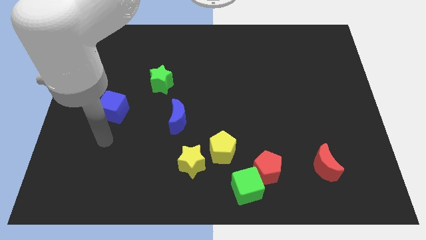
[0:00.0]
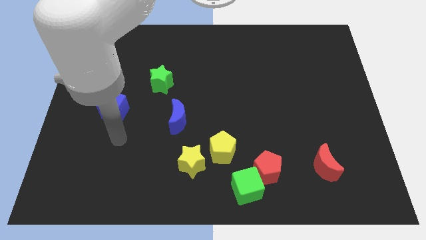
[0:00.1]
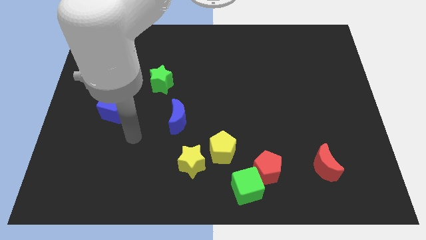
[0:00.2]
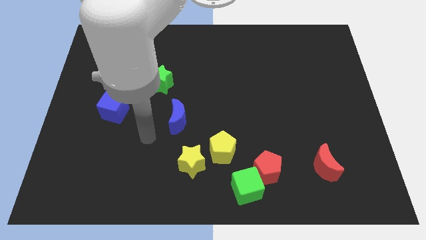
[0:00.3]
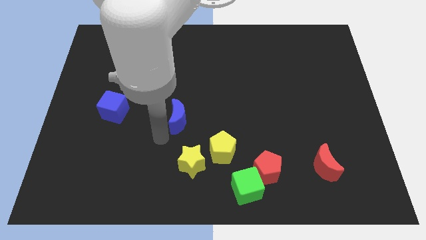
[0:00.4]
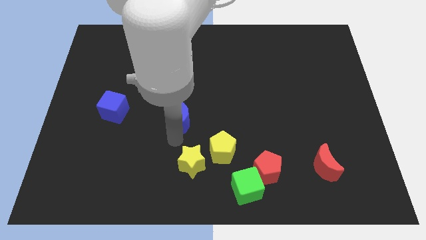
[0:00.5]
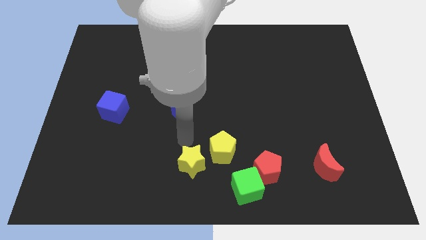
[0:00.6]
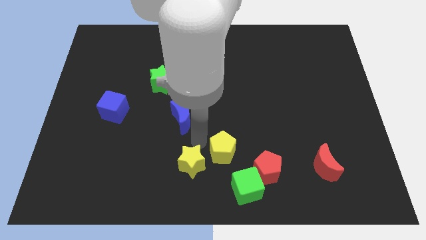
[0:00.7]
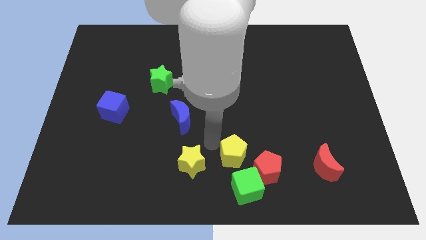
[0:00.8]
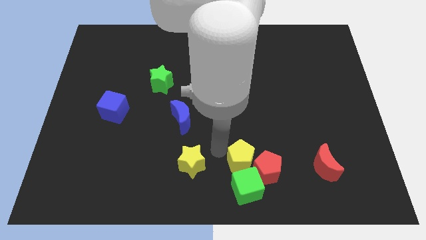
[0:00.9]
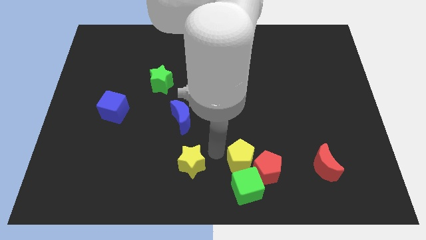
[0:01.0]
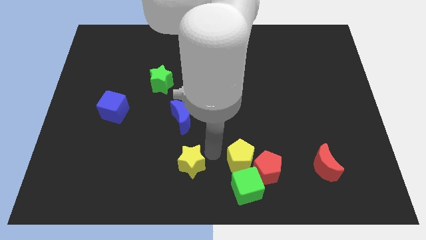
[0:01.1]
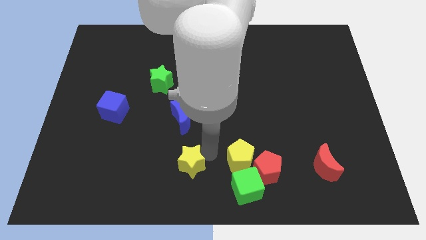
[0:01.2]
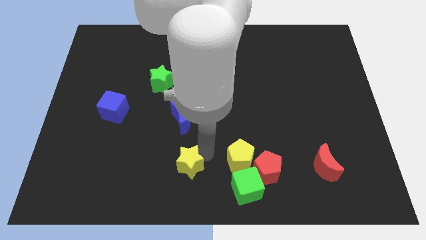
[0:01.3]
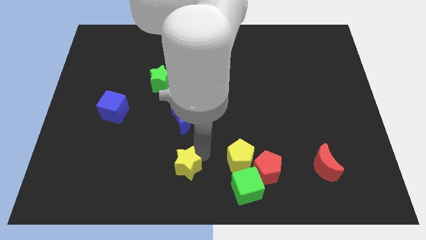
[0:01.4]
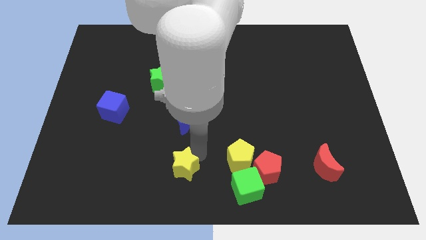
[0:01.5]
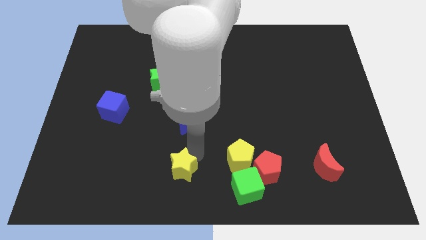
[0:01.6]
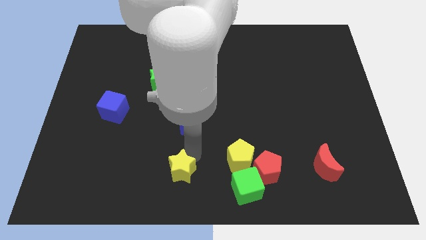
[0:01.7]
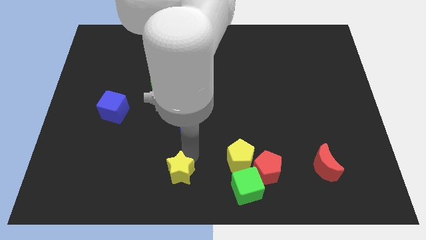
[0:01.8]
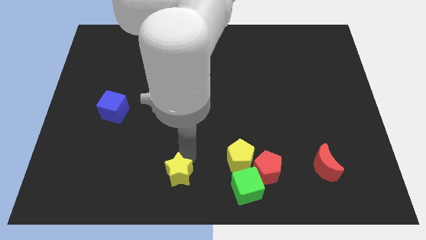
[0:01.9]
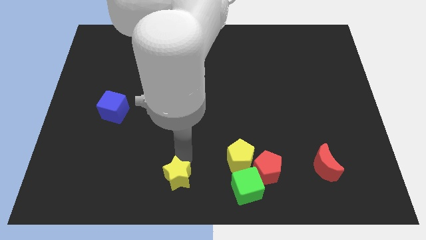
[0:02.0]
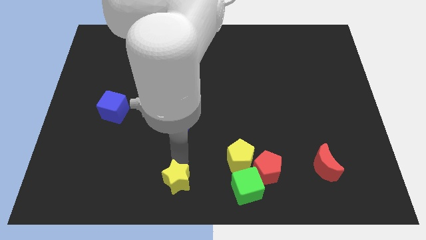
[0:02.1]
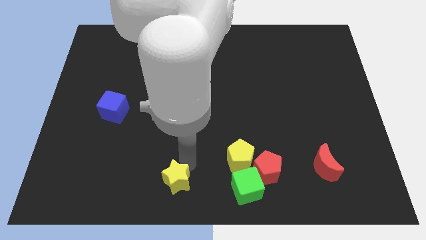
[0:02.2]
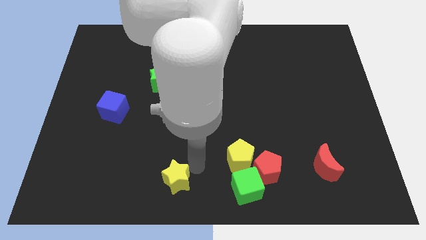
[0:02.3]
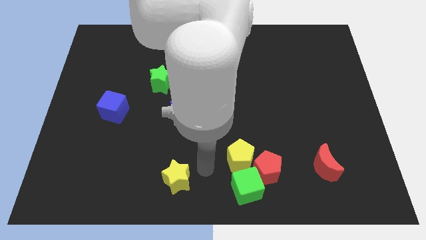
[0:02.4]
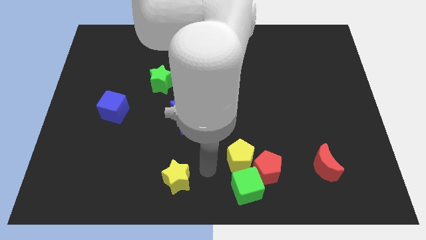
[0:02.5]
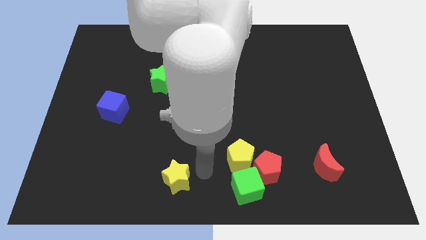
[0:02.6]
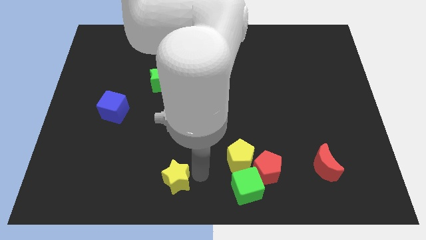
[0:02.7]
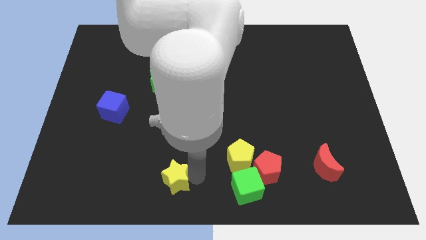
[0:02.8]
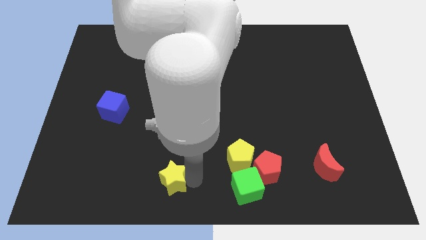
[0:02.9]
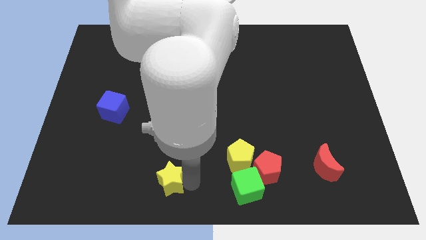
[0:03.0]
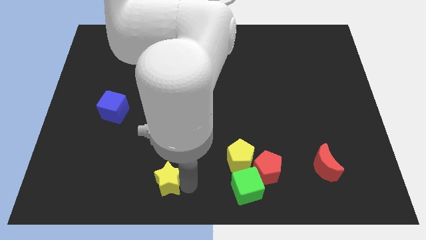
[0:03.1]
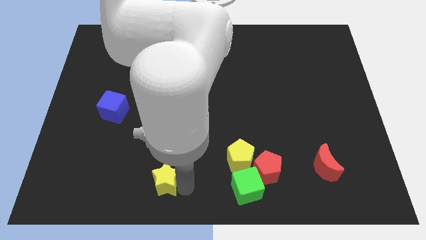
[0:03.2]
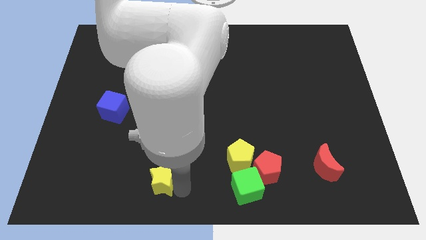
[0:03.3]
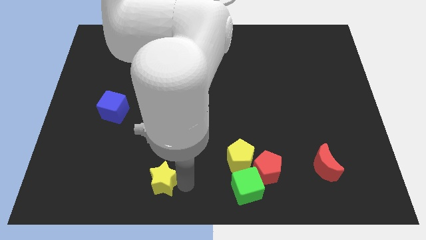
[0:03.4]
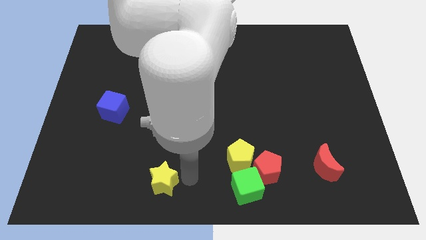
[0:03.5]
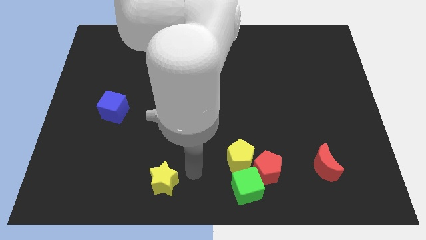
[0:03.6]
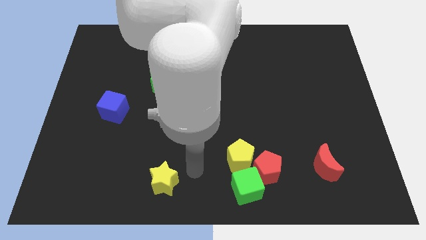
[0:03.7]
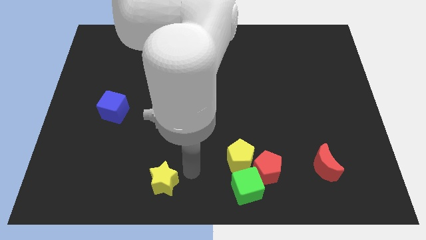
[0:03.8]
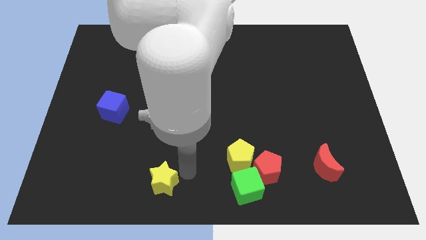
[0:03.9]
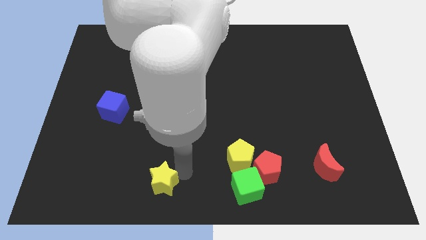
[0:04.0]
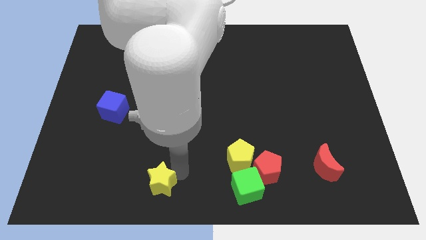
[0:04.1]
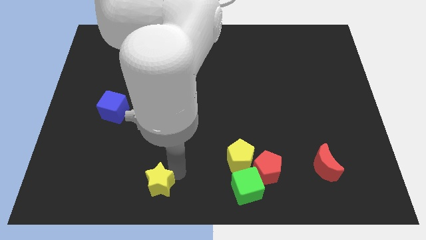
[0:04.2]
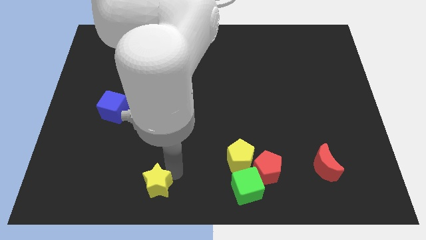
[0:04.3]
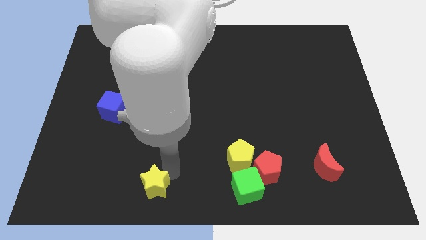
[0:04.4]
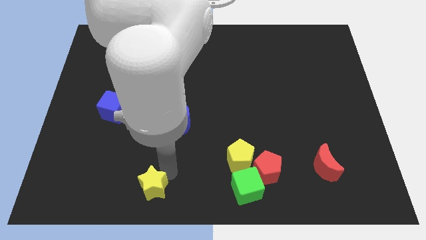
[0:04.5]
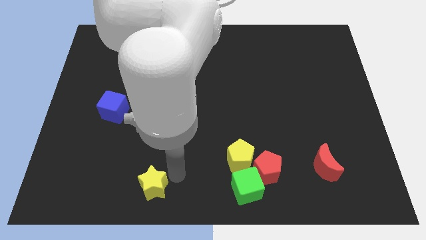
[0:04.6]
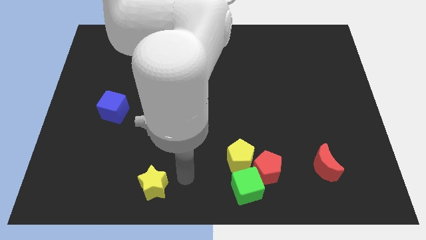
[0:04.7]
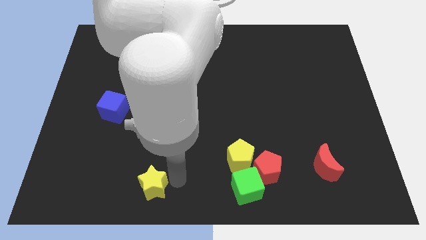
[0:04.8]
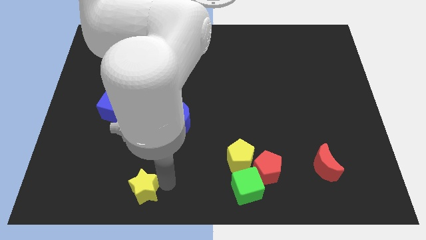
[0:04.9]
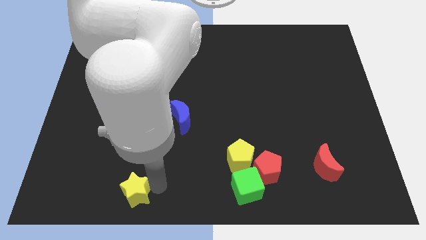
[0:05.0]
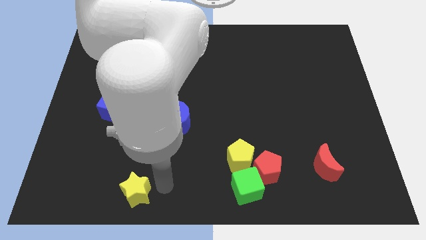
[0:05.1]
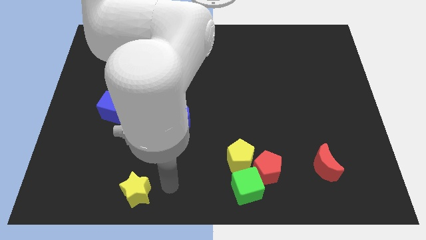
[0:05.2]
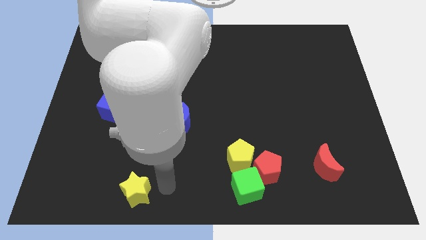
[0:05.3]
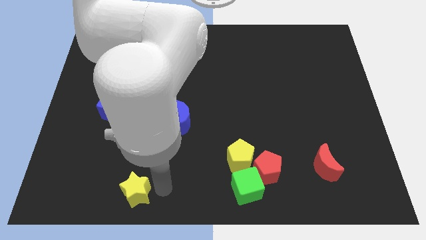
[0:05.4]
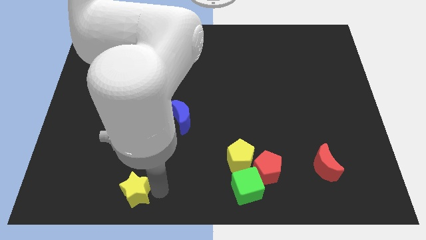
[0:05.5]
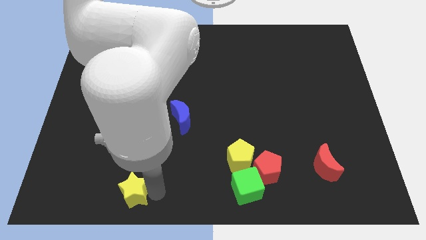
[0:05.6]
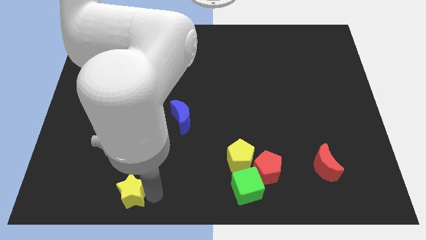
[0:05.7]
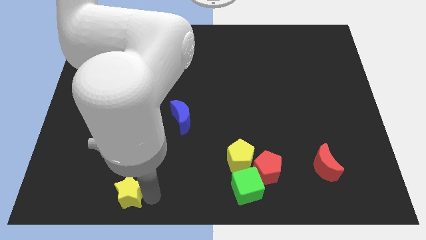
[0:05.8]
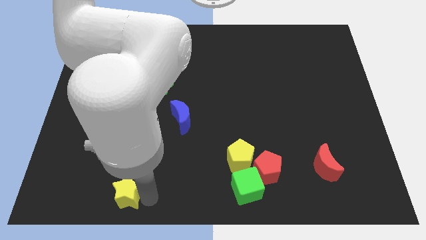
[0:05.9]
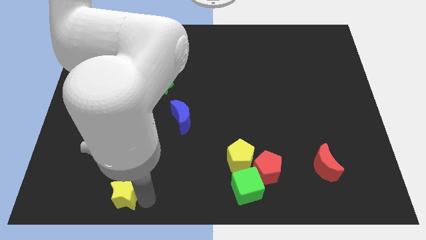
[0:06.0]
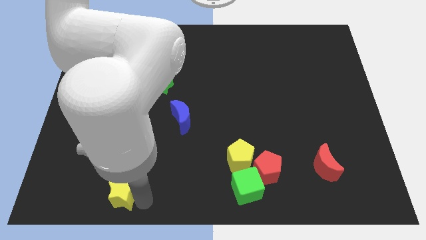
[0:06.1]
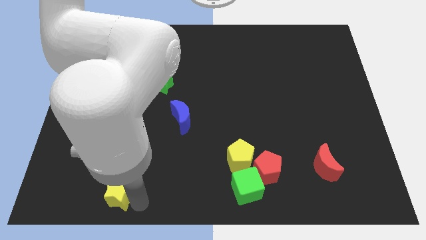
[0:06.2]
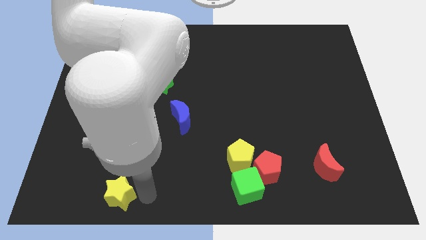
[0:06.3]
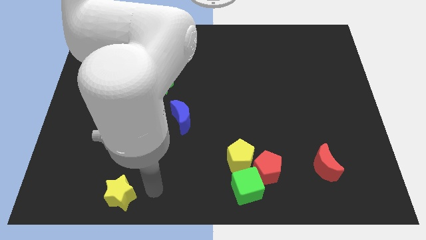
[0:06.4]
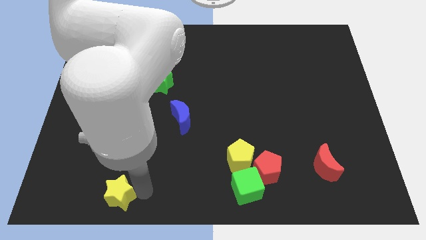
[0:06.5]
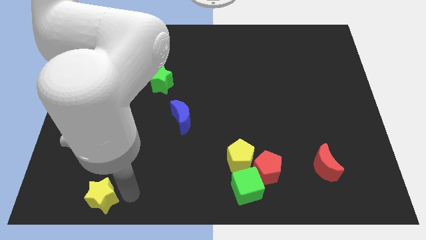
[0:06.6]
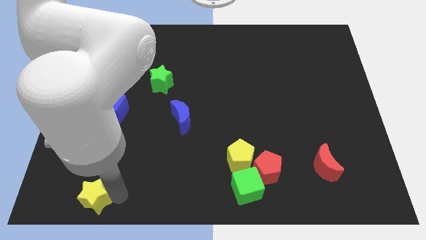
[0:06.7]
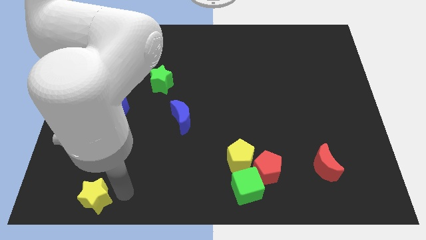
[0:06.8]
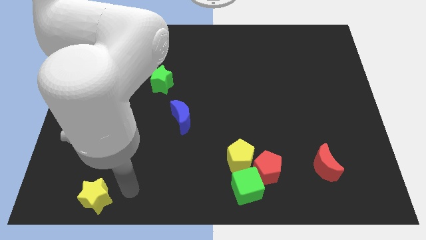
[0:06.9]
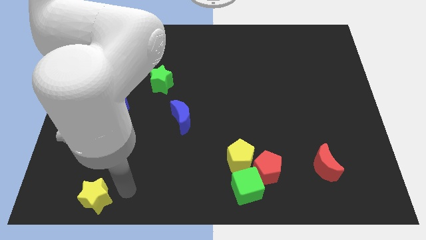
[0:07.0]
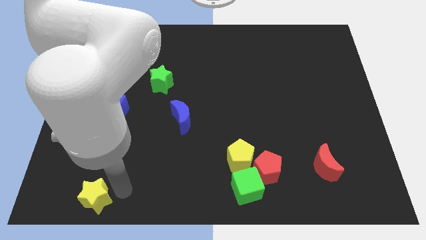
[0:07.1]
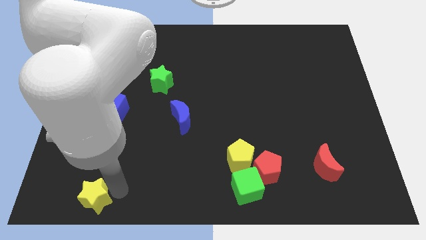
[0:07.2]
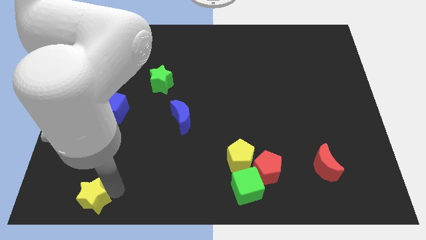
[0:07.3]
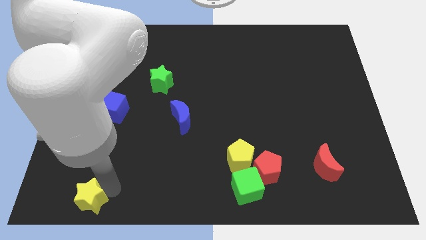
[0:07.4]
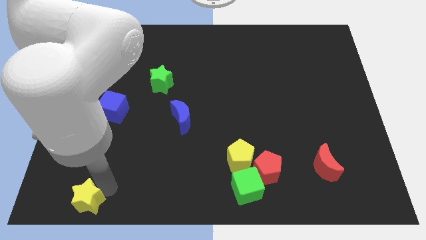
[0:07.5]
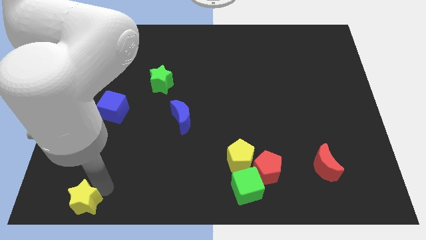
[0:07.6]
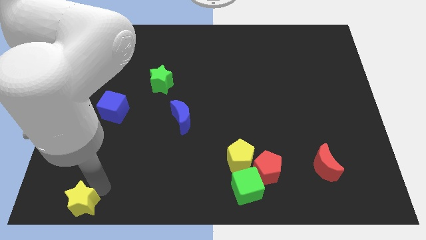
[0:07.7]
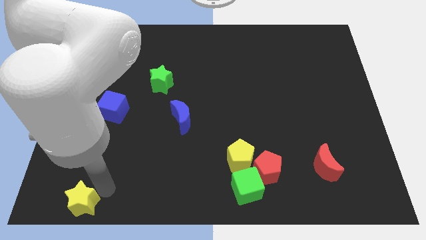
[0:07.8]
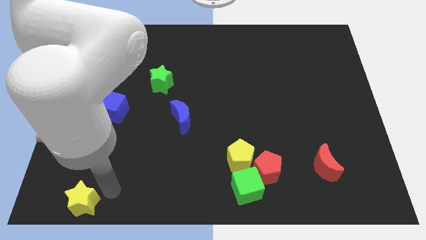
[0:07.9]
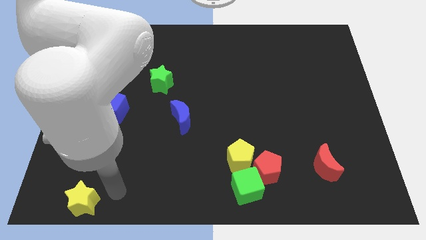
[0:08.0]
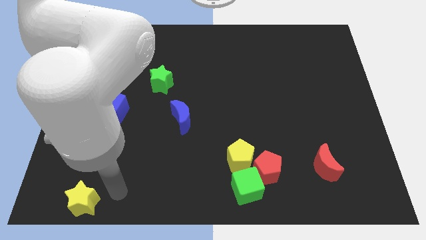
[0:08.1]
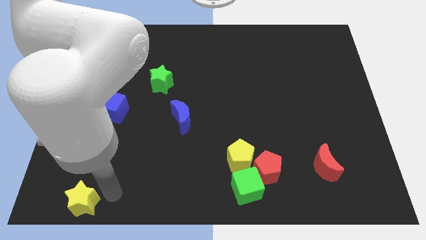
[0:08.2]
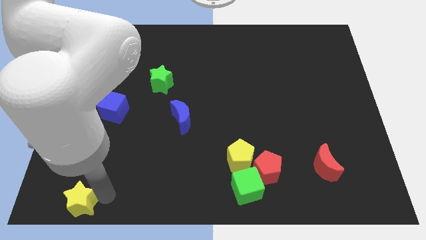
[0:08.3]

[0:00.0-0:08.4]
slide the yellow star to the bottom left corner
